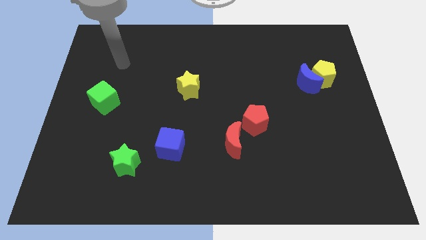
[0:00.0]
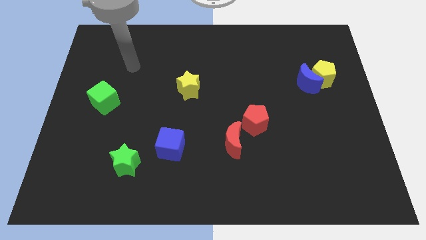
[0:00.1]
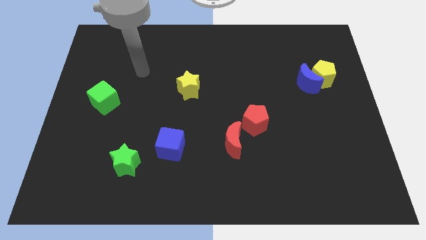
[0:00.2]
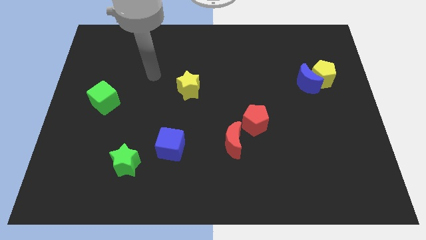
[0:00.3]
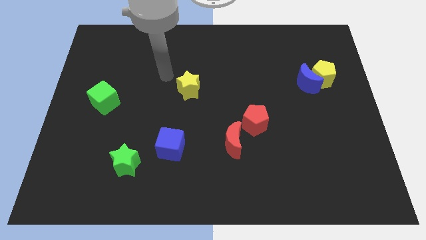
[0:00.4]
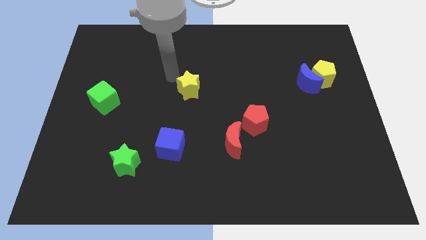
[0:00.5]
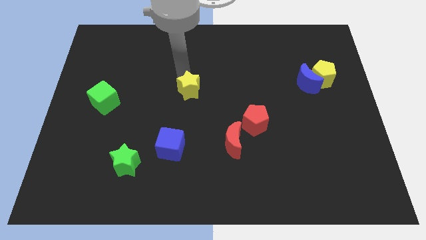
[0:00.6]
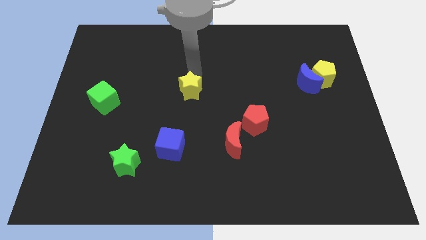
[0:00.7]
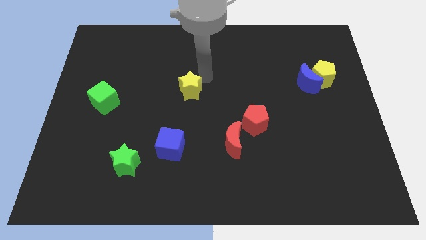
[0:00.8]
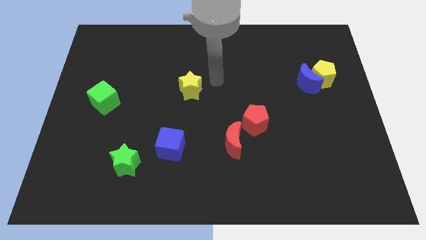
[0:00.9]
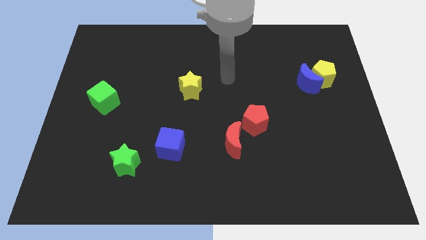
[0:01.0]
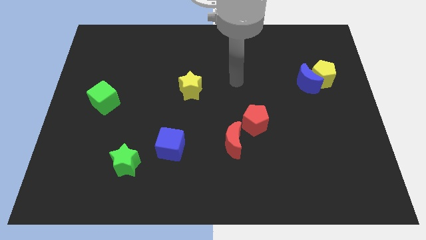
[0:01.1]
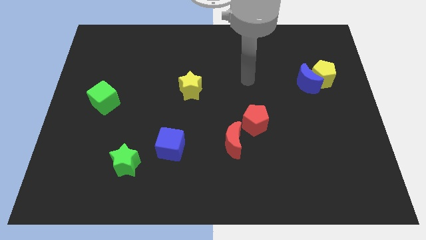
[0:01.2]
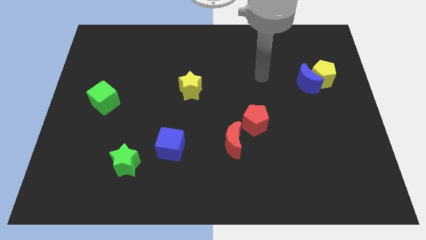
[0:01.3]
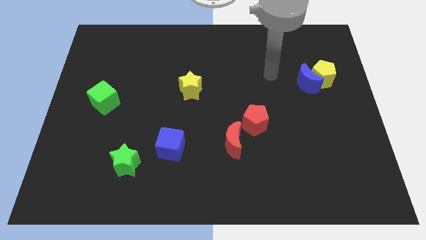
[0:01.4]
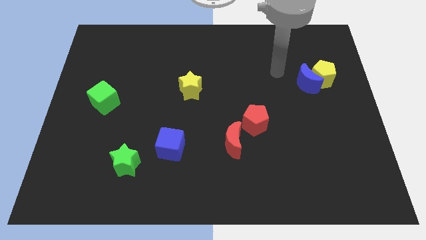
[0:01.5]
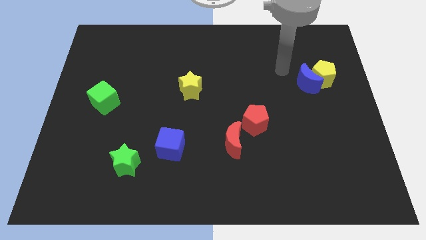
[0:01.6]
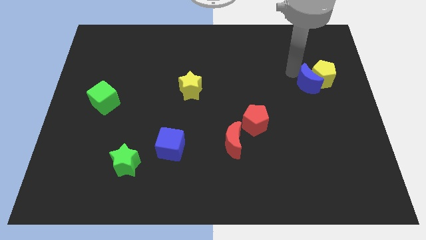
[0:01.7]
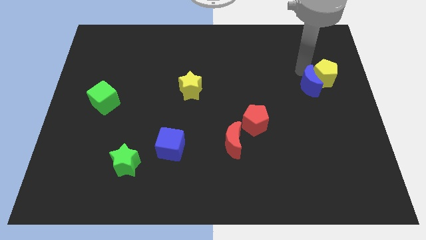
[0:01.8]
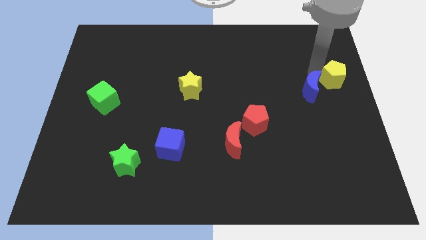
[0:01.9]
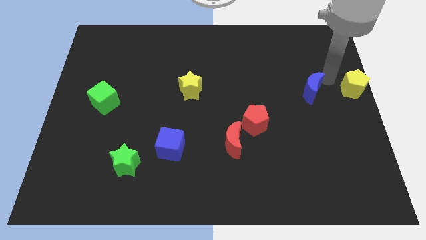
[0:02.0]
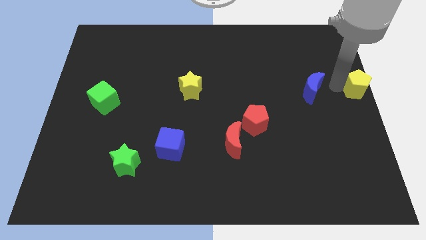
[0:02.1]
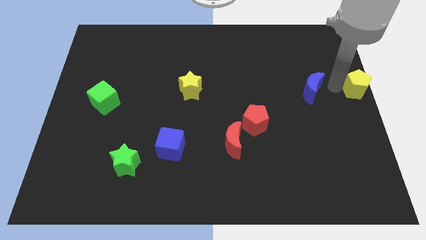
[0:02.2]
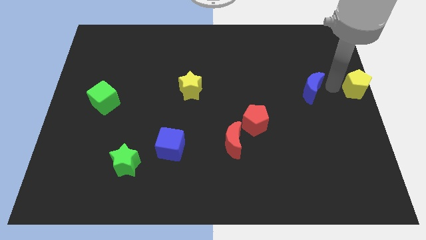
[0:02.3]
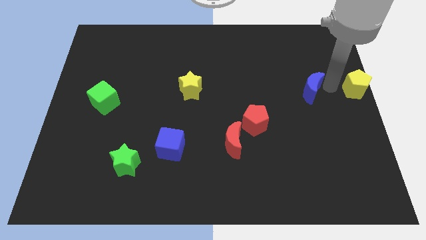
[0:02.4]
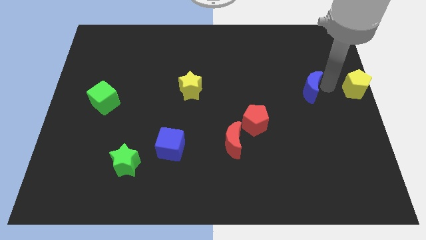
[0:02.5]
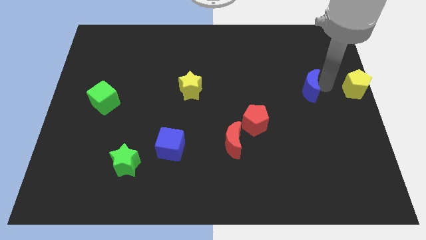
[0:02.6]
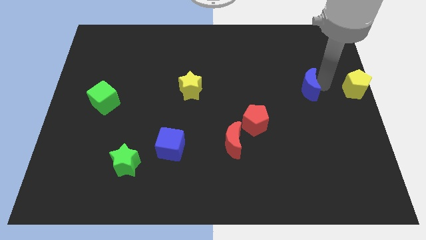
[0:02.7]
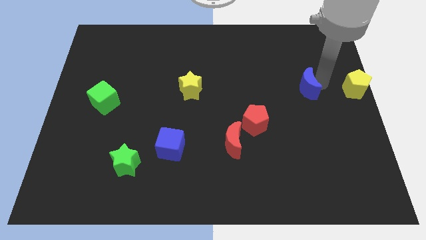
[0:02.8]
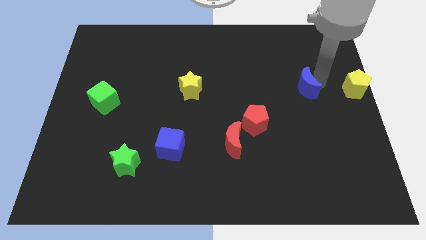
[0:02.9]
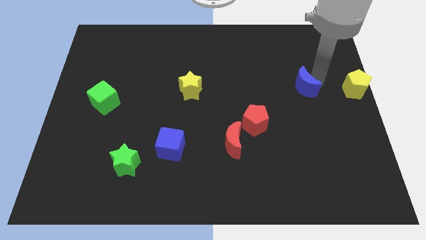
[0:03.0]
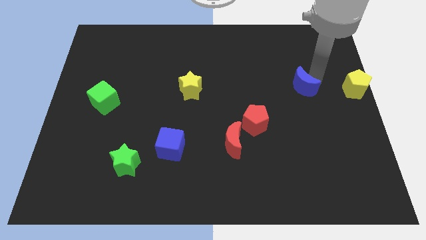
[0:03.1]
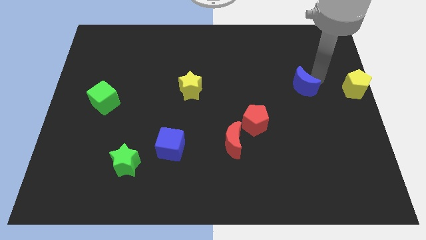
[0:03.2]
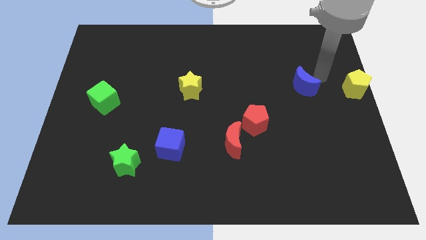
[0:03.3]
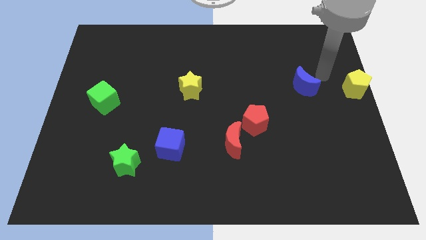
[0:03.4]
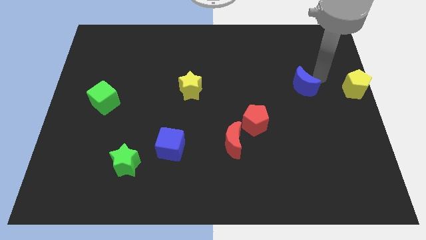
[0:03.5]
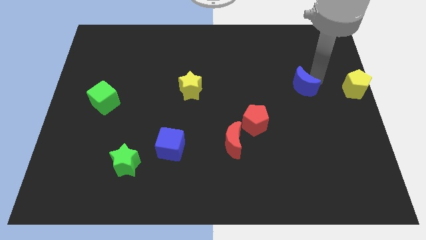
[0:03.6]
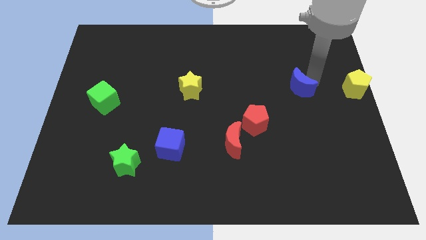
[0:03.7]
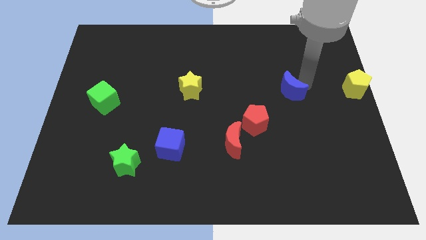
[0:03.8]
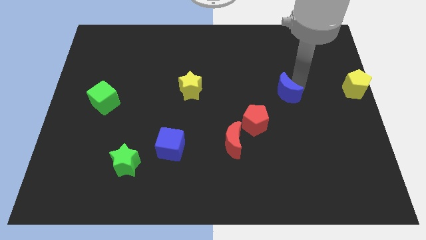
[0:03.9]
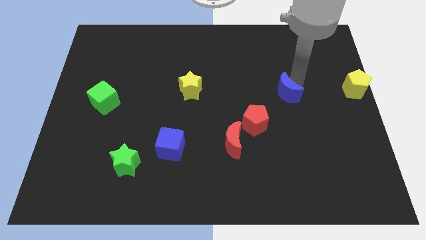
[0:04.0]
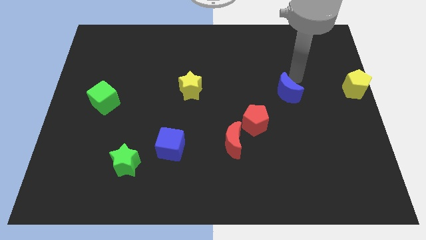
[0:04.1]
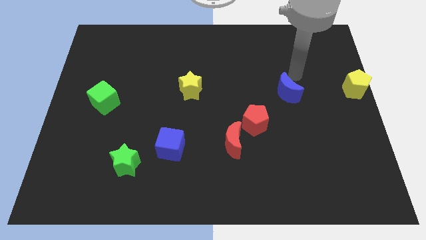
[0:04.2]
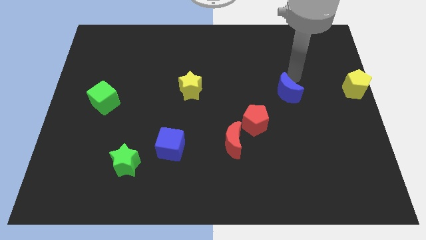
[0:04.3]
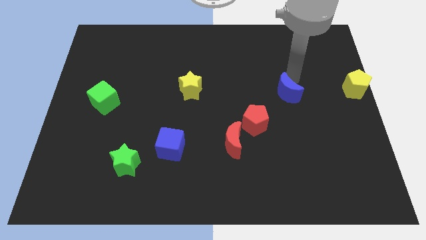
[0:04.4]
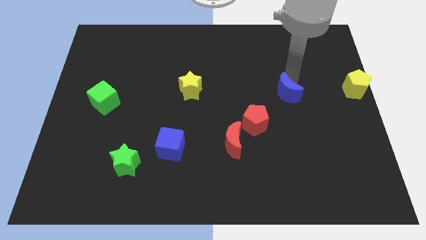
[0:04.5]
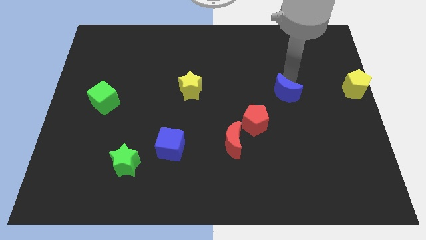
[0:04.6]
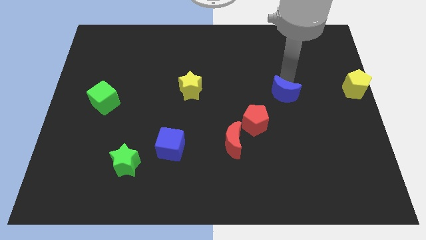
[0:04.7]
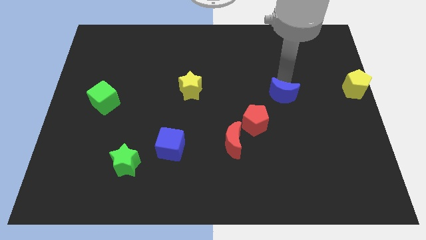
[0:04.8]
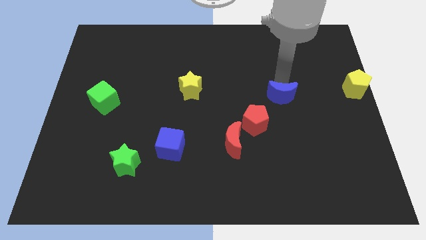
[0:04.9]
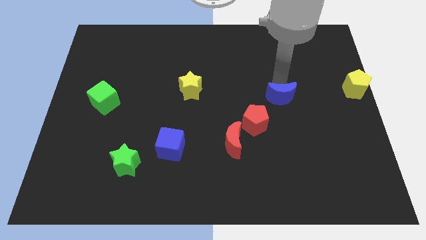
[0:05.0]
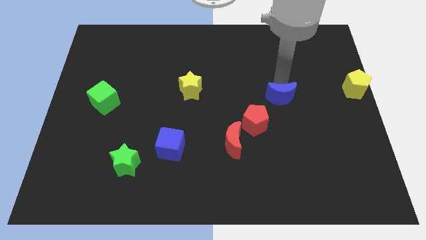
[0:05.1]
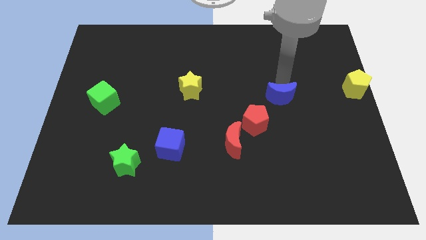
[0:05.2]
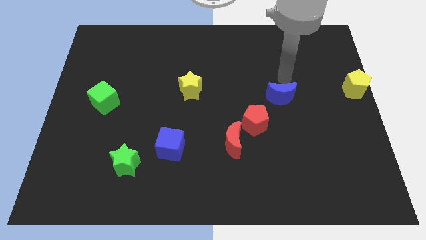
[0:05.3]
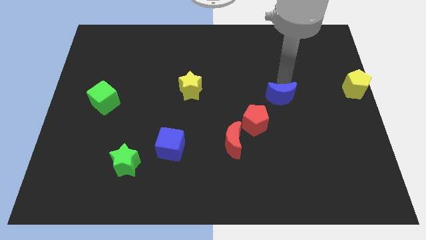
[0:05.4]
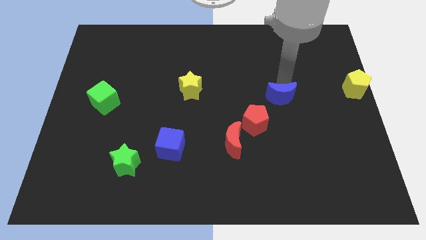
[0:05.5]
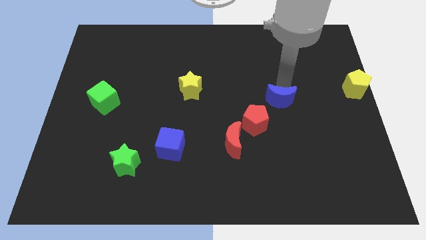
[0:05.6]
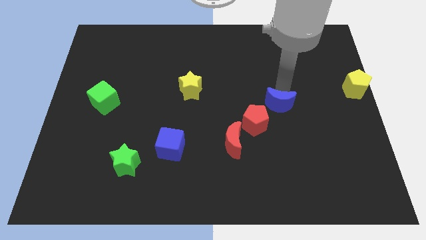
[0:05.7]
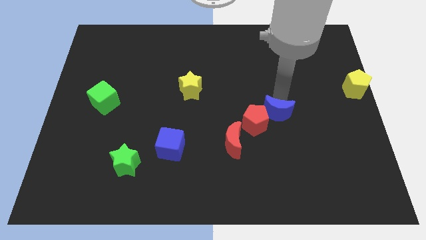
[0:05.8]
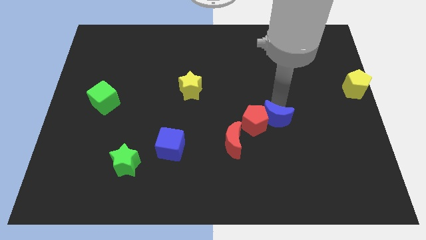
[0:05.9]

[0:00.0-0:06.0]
move the blue moon to the bottom right of the red pentagon
